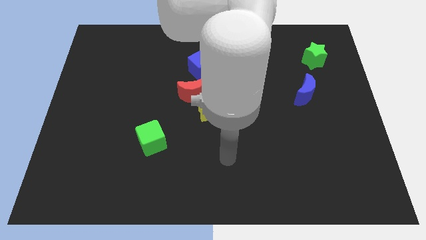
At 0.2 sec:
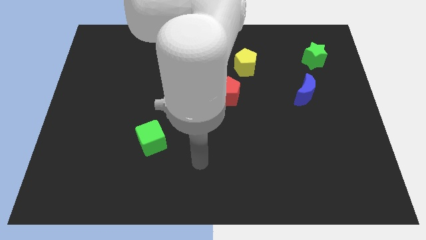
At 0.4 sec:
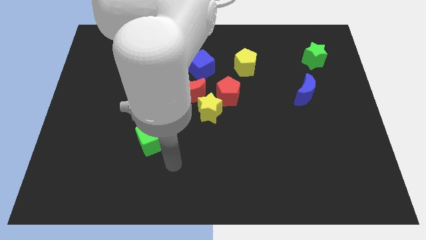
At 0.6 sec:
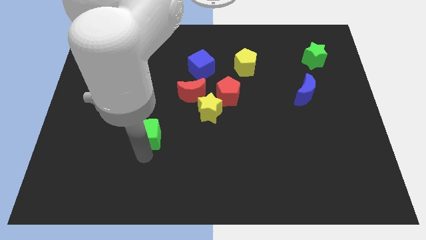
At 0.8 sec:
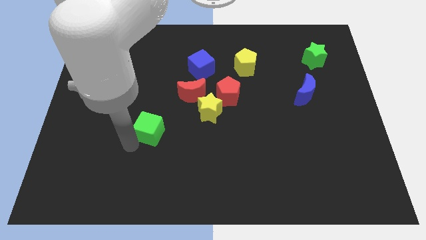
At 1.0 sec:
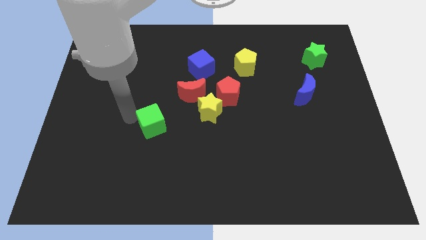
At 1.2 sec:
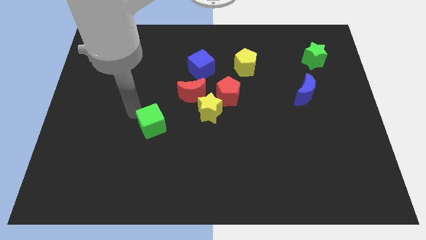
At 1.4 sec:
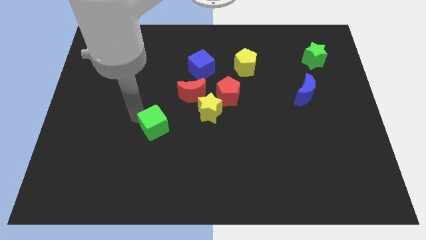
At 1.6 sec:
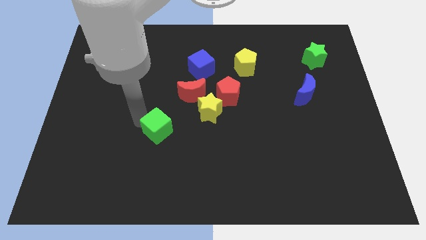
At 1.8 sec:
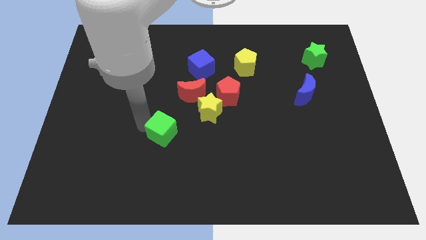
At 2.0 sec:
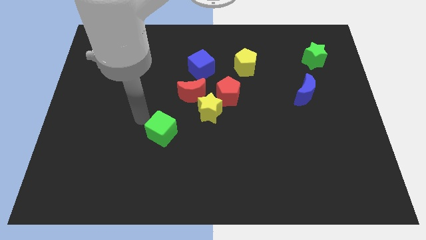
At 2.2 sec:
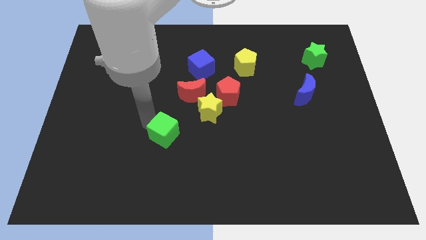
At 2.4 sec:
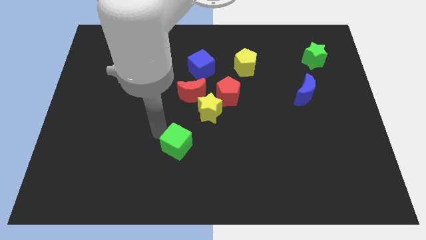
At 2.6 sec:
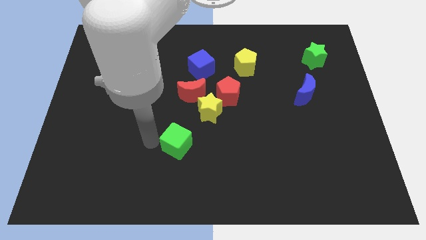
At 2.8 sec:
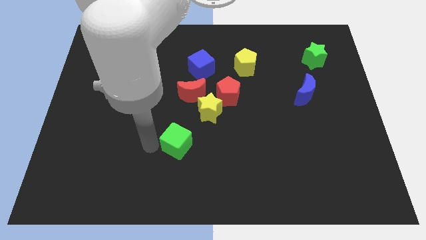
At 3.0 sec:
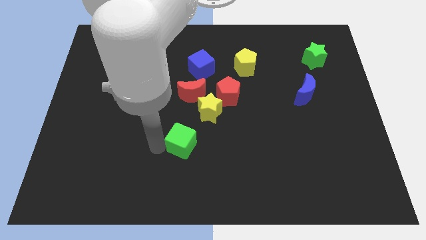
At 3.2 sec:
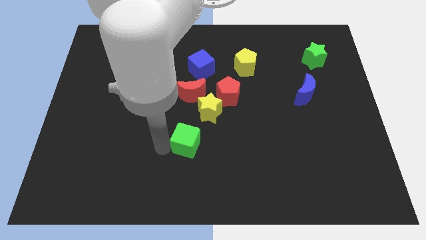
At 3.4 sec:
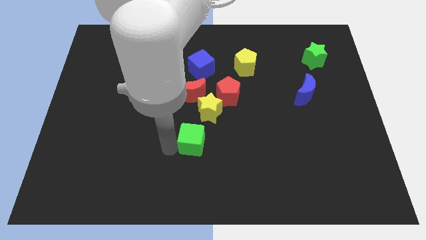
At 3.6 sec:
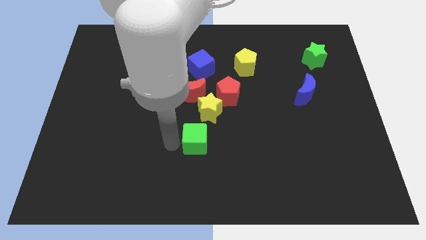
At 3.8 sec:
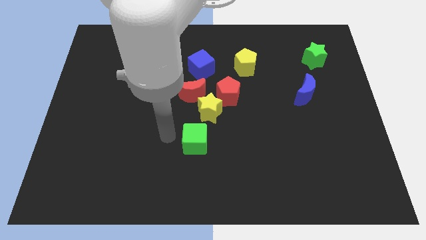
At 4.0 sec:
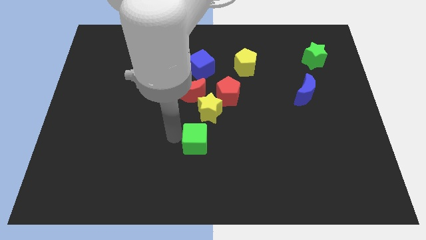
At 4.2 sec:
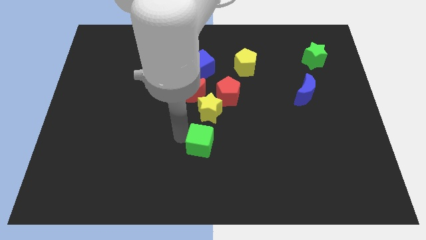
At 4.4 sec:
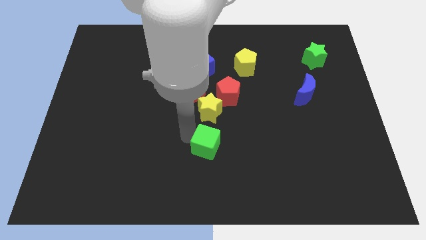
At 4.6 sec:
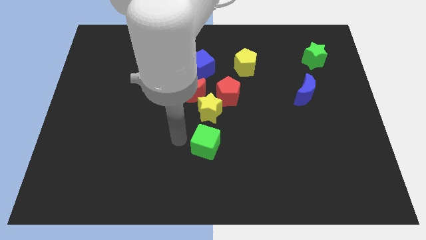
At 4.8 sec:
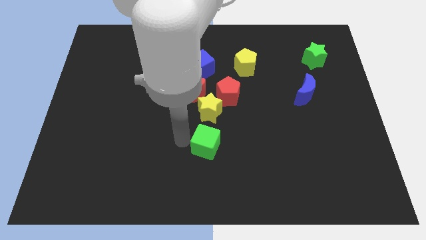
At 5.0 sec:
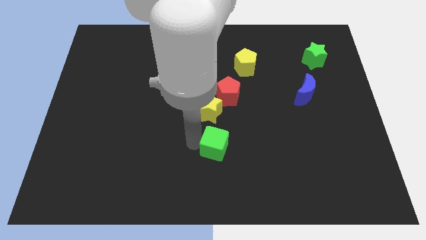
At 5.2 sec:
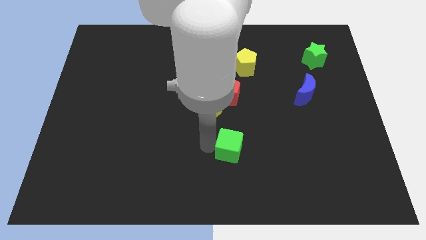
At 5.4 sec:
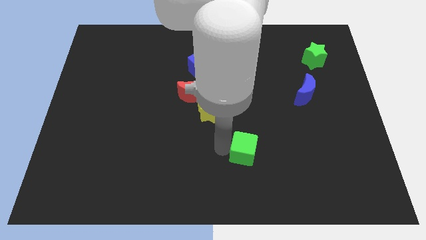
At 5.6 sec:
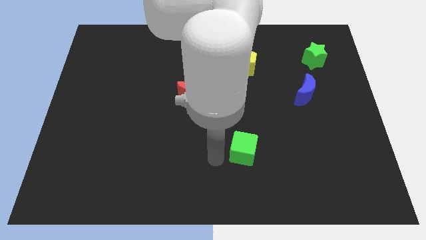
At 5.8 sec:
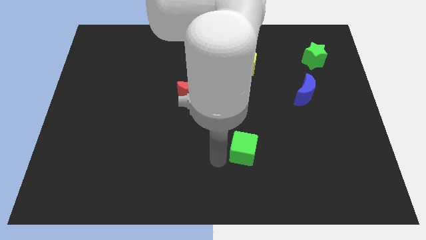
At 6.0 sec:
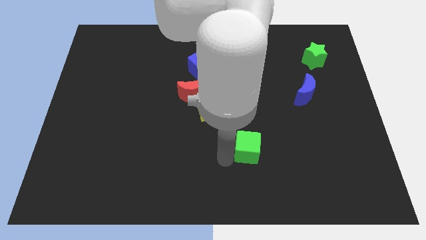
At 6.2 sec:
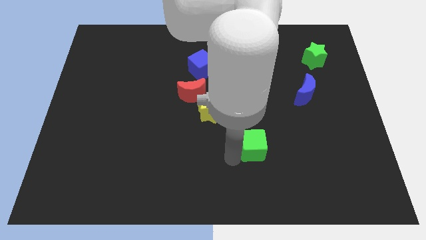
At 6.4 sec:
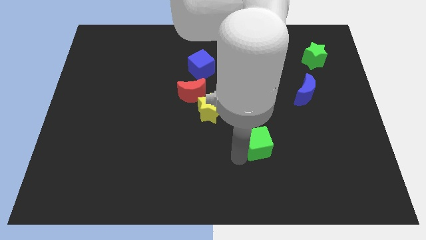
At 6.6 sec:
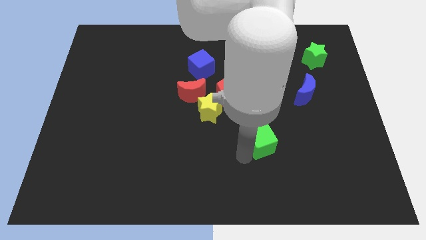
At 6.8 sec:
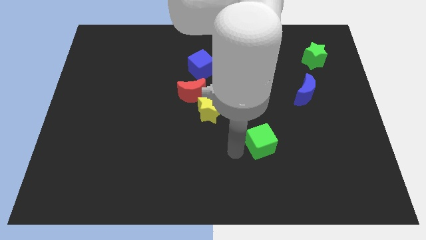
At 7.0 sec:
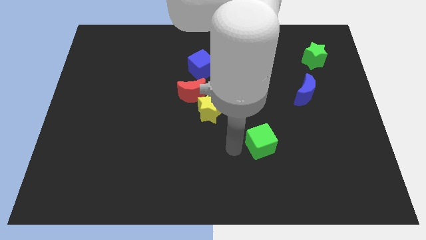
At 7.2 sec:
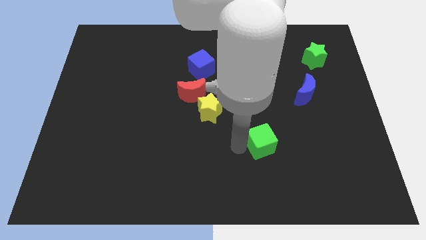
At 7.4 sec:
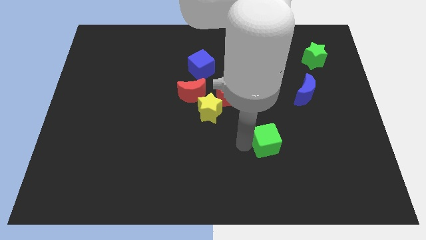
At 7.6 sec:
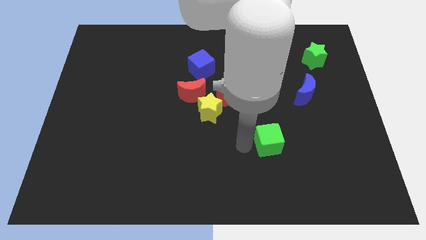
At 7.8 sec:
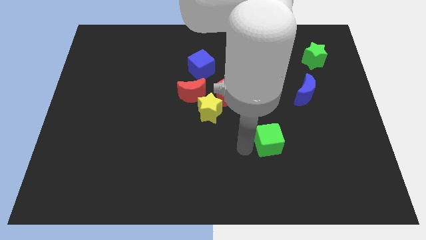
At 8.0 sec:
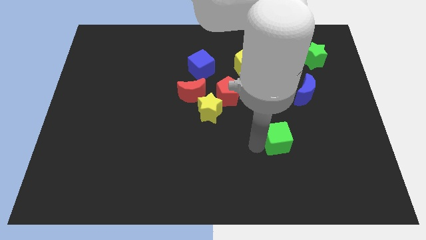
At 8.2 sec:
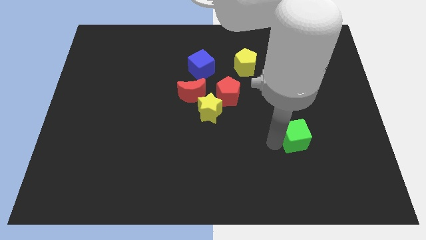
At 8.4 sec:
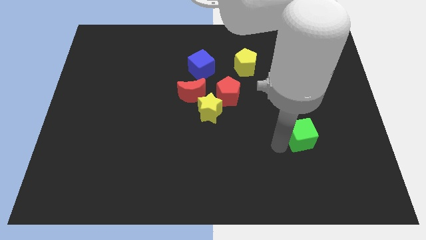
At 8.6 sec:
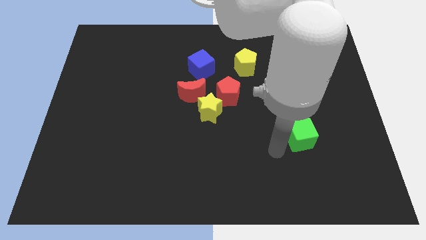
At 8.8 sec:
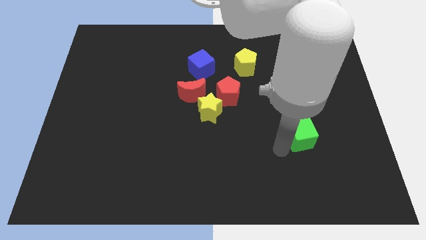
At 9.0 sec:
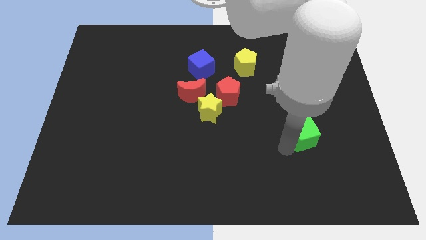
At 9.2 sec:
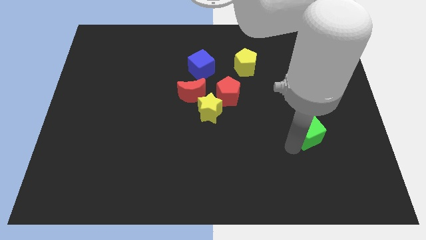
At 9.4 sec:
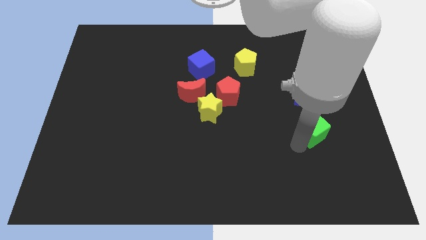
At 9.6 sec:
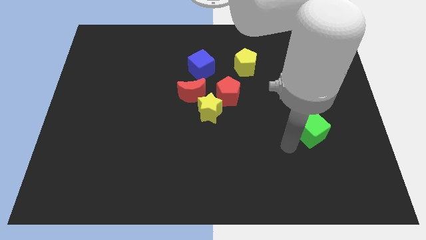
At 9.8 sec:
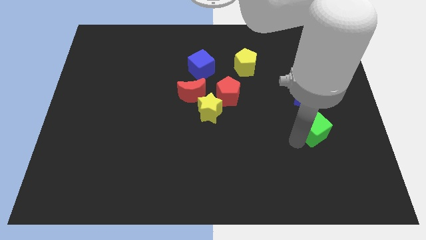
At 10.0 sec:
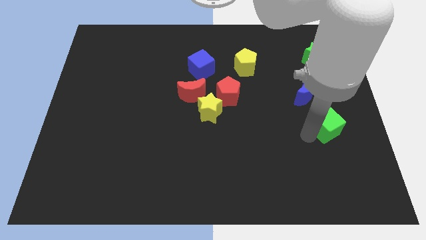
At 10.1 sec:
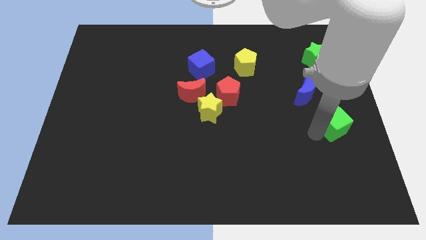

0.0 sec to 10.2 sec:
move the green cube to the right side

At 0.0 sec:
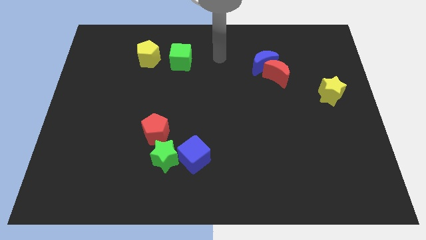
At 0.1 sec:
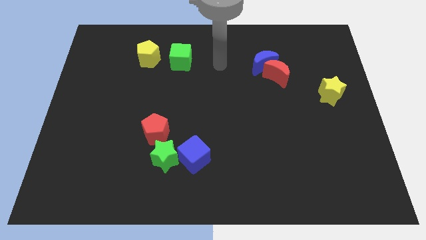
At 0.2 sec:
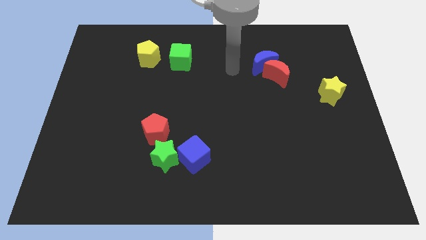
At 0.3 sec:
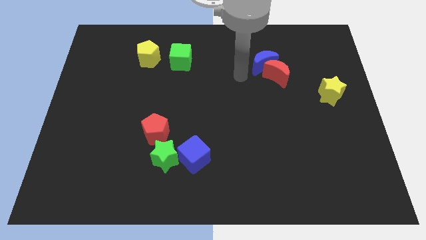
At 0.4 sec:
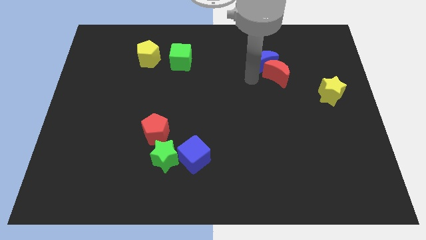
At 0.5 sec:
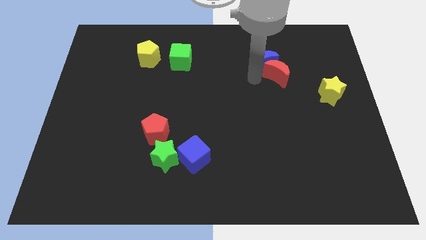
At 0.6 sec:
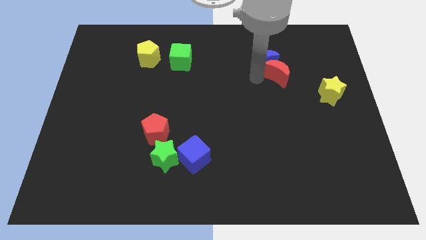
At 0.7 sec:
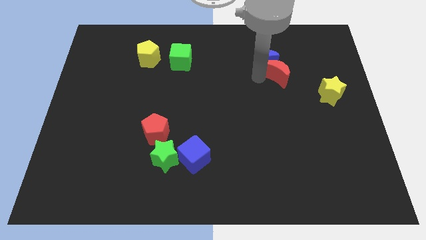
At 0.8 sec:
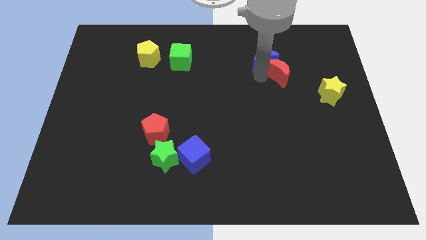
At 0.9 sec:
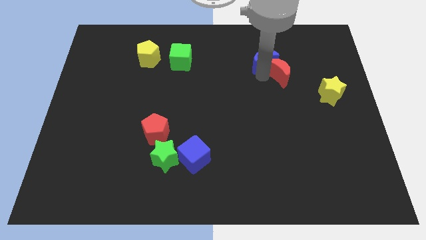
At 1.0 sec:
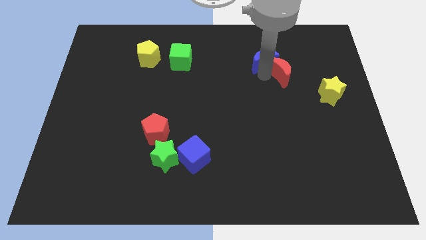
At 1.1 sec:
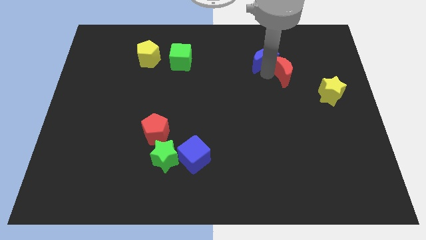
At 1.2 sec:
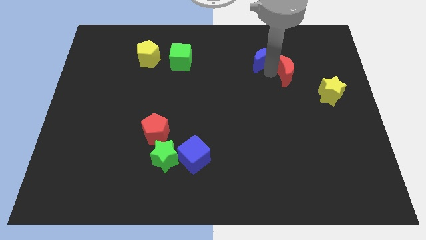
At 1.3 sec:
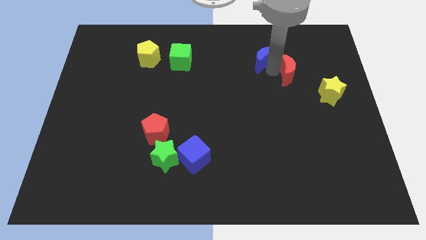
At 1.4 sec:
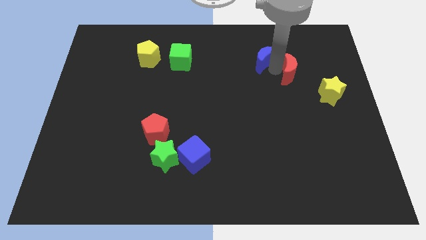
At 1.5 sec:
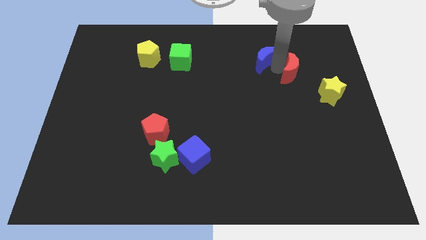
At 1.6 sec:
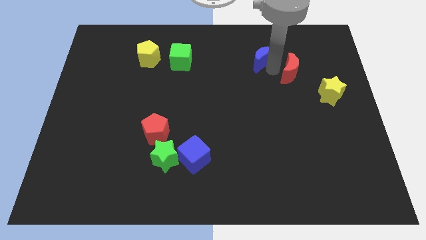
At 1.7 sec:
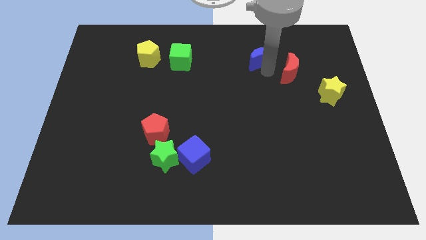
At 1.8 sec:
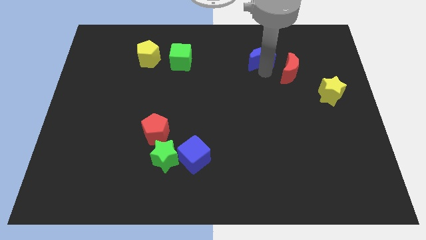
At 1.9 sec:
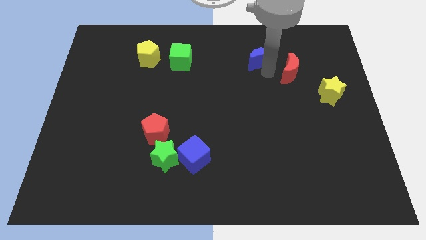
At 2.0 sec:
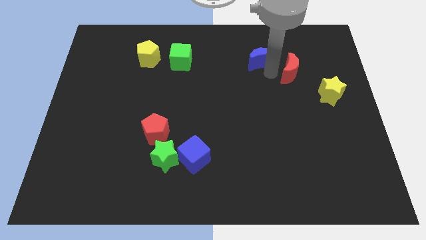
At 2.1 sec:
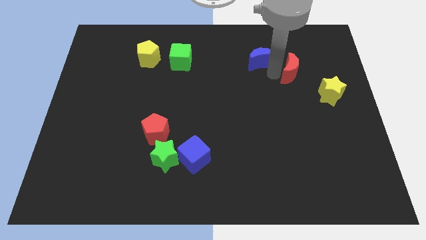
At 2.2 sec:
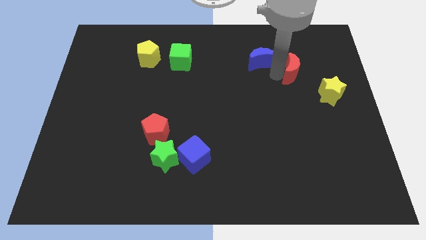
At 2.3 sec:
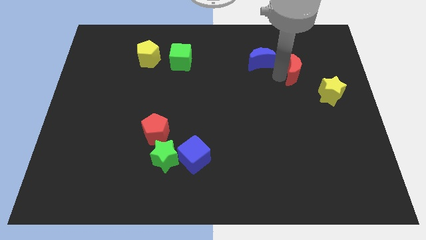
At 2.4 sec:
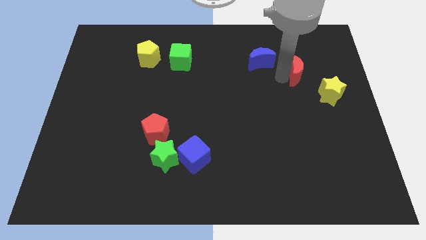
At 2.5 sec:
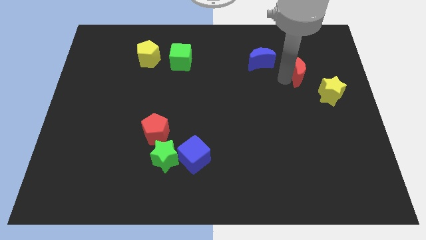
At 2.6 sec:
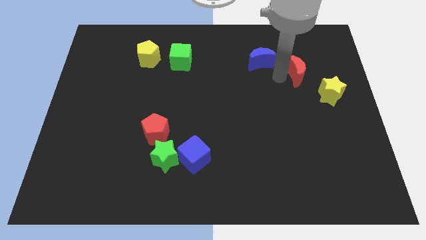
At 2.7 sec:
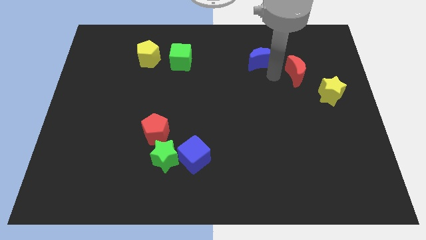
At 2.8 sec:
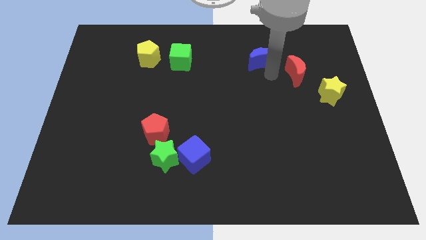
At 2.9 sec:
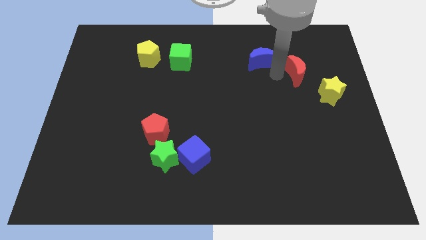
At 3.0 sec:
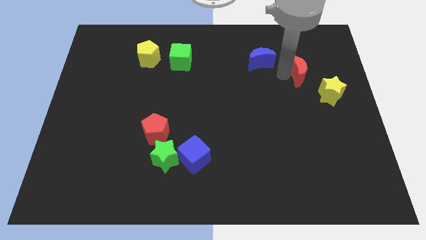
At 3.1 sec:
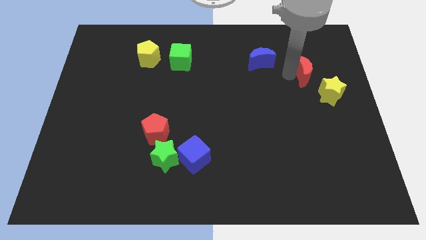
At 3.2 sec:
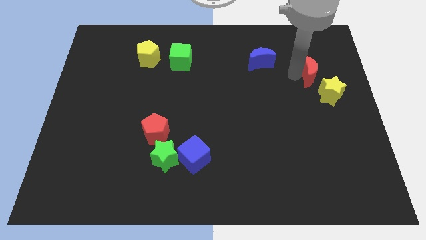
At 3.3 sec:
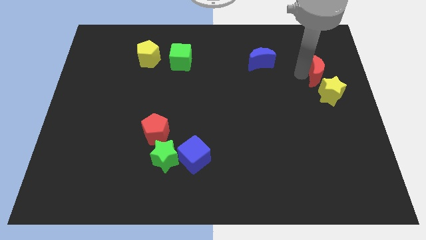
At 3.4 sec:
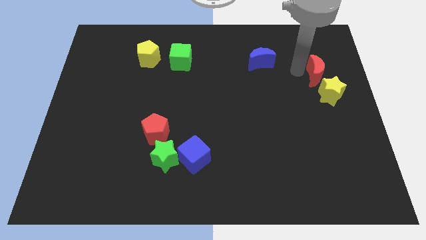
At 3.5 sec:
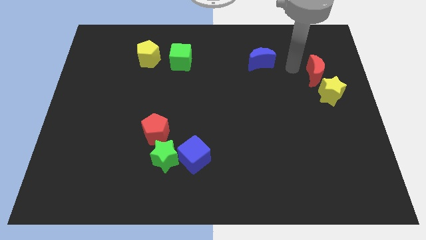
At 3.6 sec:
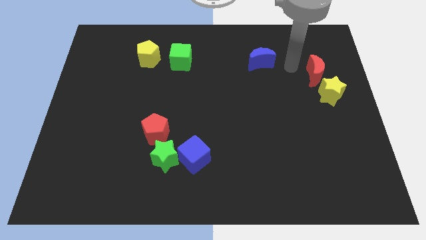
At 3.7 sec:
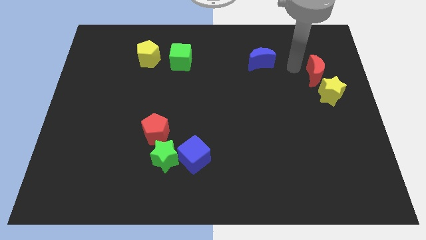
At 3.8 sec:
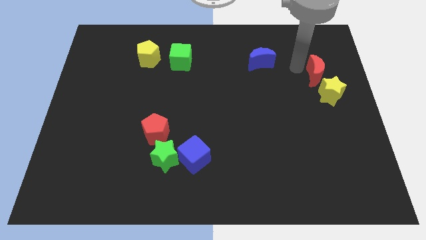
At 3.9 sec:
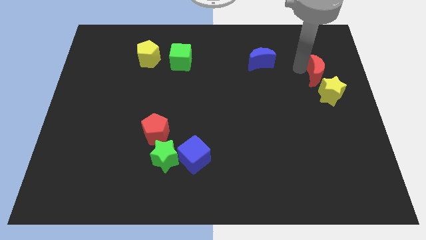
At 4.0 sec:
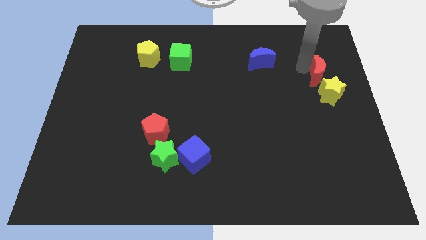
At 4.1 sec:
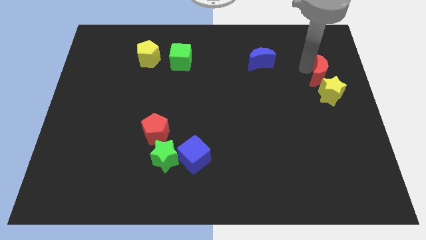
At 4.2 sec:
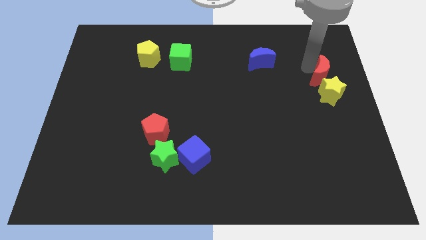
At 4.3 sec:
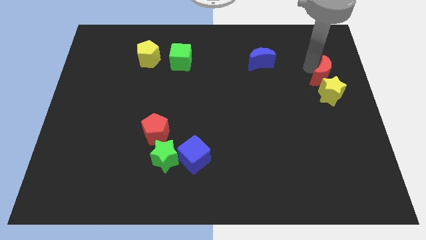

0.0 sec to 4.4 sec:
slide the red moon to the right side of the board
